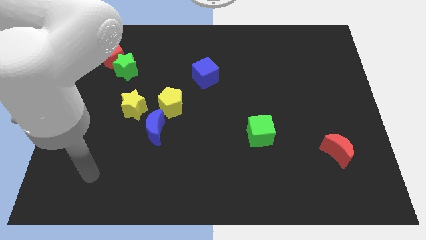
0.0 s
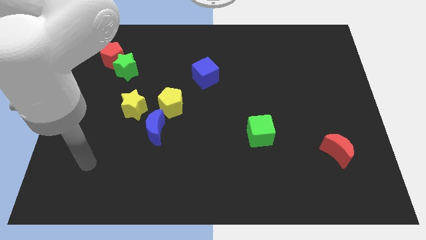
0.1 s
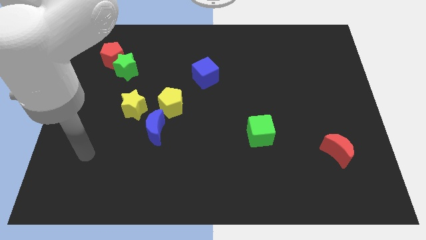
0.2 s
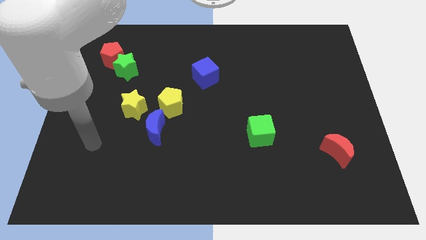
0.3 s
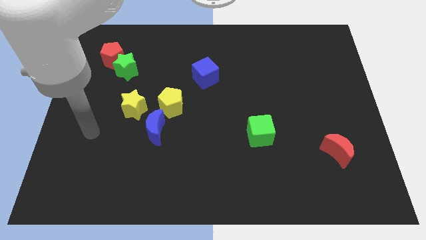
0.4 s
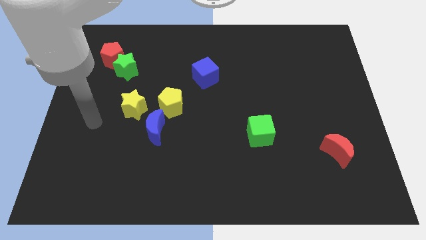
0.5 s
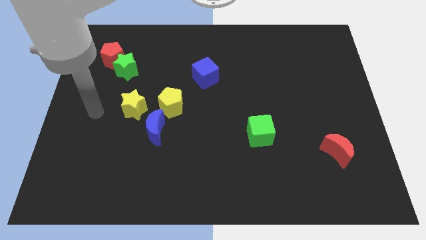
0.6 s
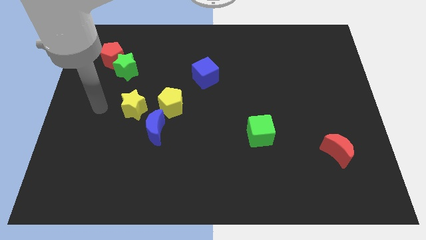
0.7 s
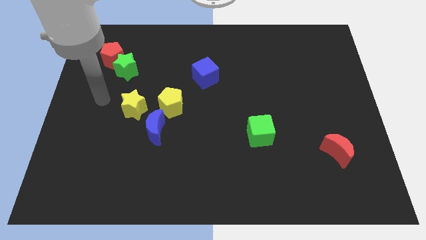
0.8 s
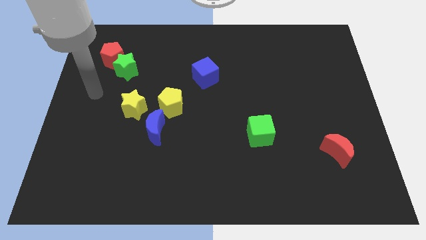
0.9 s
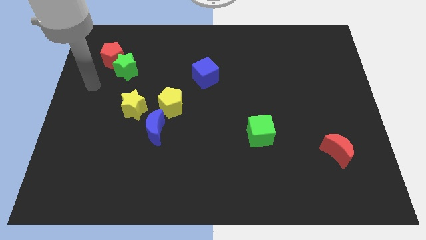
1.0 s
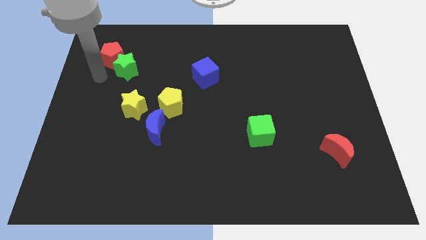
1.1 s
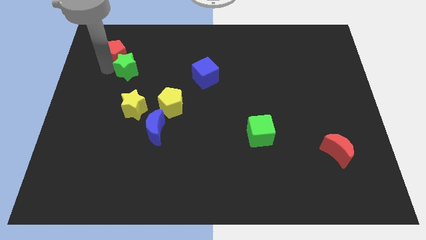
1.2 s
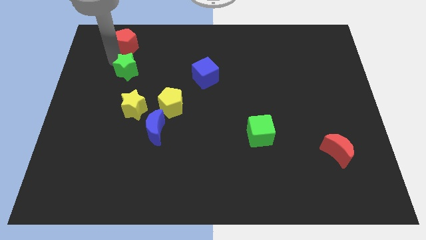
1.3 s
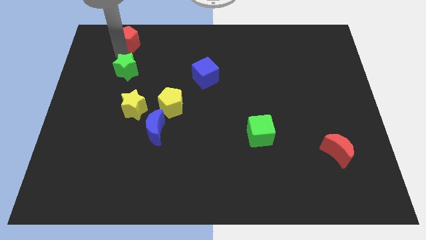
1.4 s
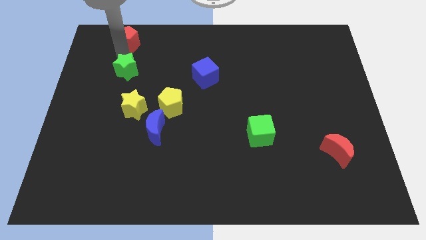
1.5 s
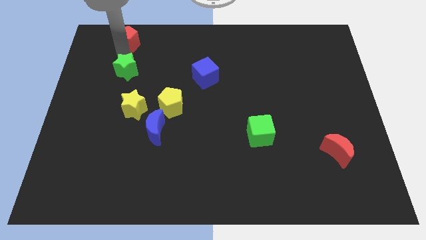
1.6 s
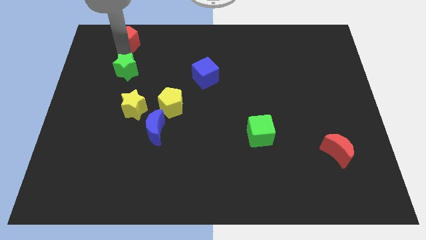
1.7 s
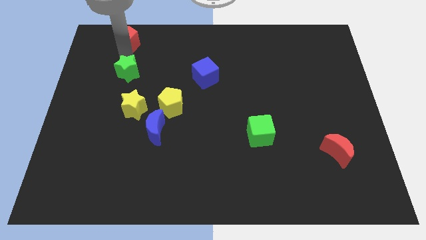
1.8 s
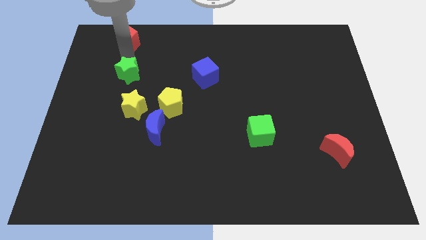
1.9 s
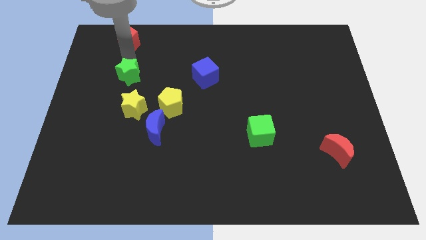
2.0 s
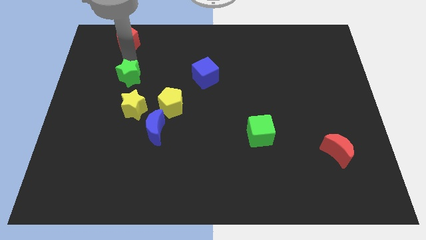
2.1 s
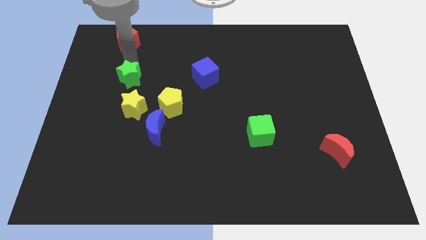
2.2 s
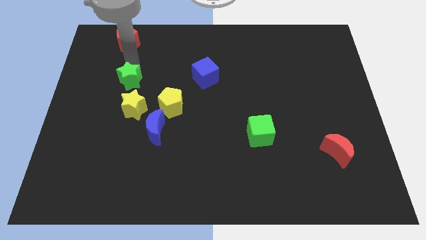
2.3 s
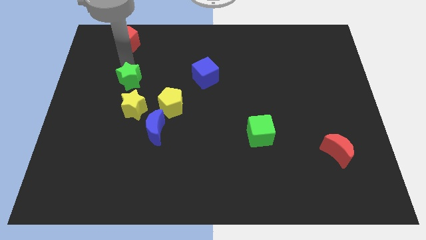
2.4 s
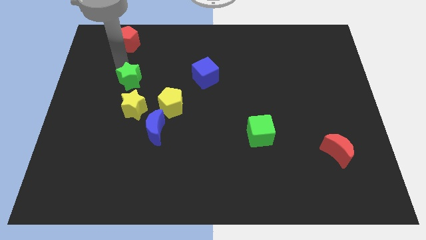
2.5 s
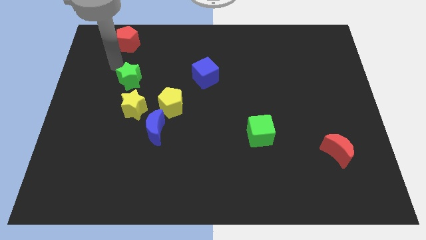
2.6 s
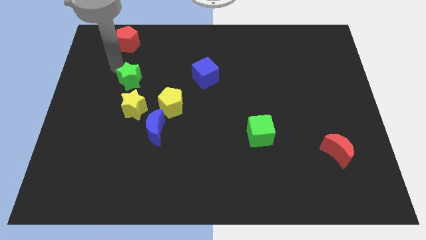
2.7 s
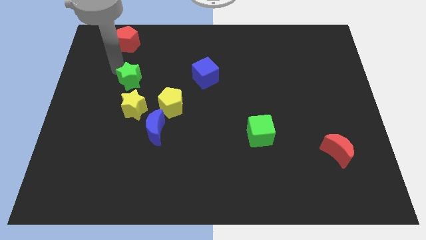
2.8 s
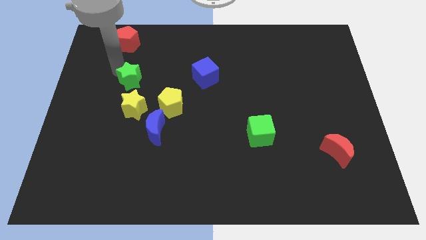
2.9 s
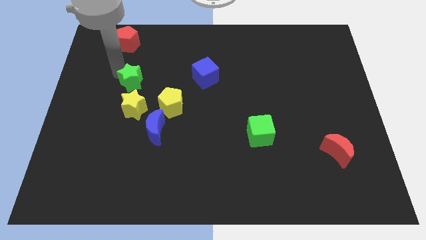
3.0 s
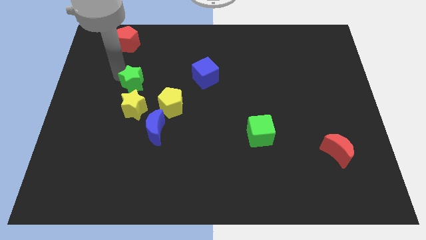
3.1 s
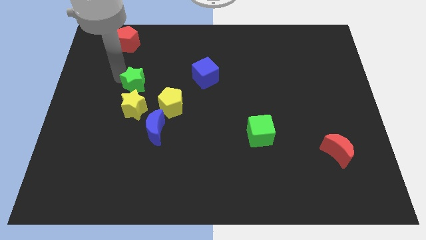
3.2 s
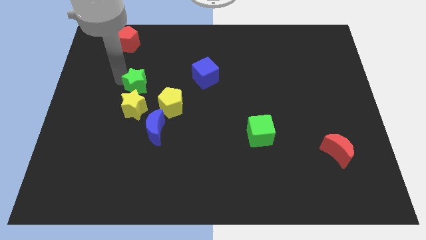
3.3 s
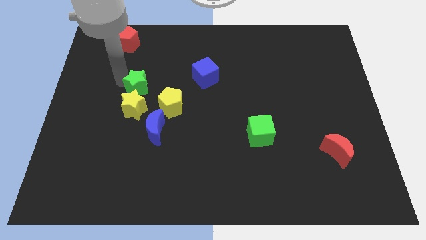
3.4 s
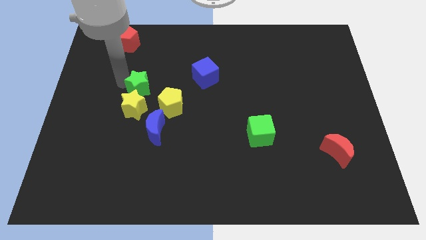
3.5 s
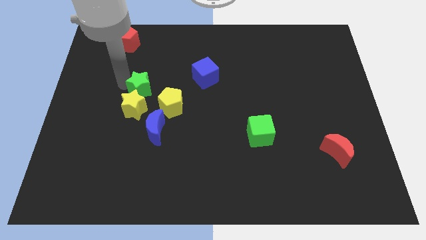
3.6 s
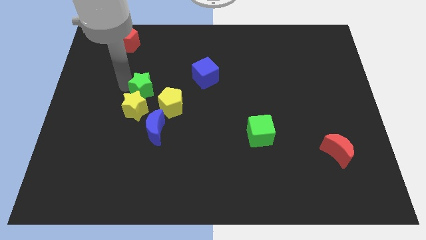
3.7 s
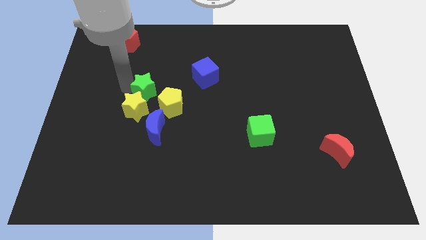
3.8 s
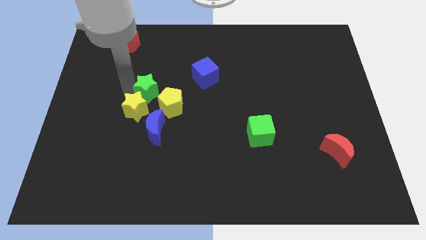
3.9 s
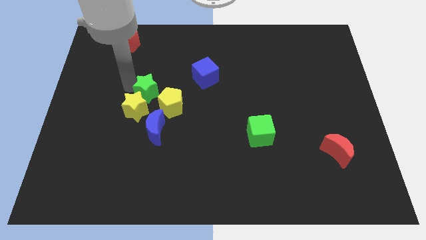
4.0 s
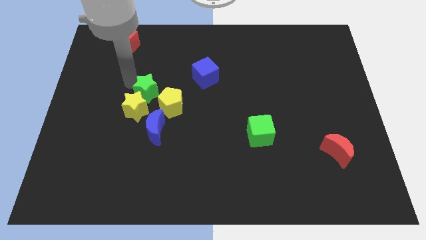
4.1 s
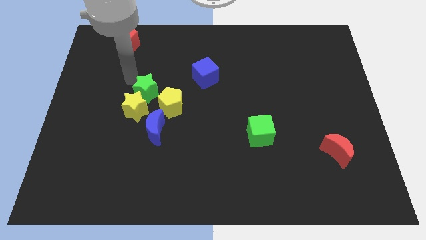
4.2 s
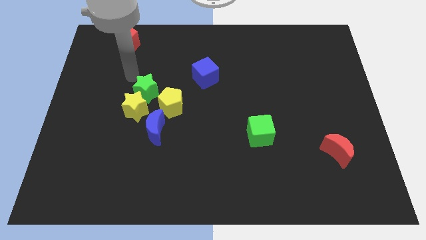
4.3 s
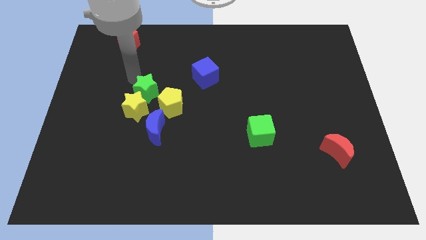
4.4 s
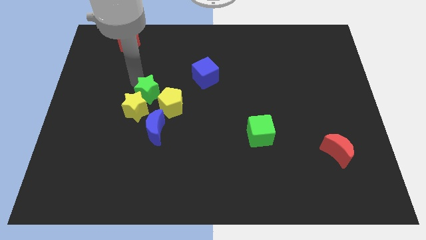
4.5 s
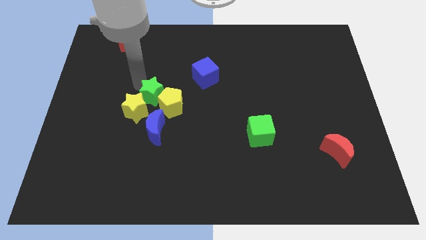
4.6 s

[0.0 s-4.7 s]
slide the green star next to the yellow pentagon

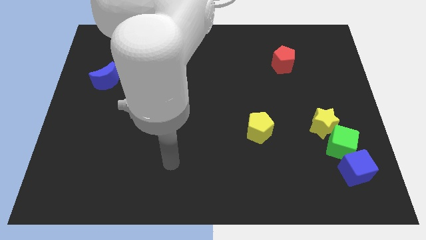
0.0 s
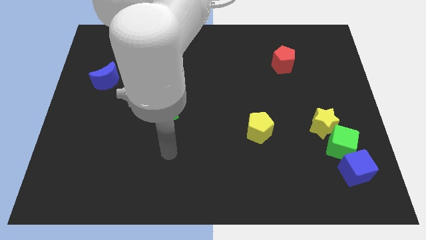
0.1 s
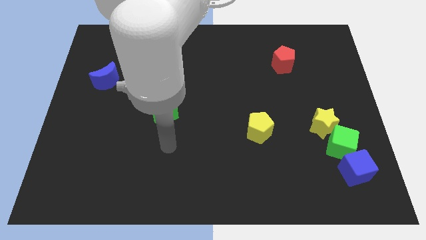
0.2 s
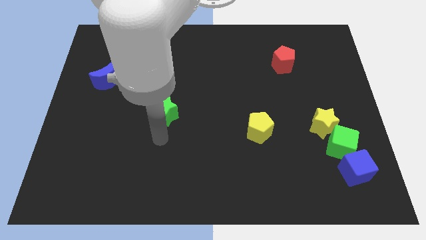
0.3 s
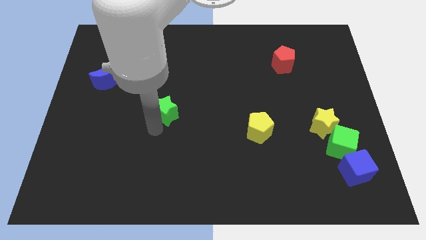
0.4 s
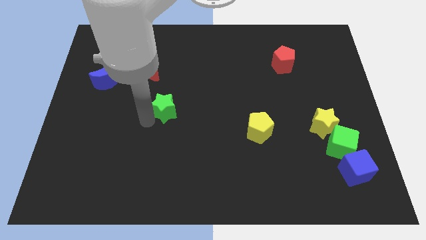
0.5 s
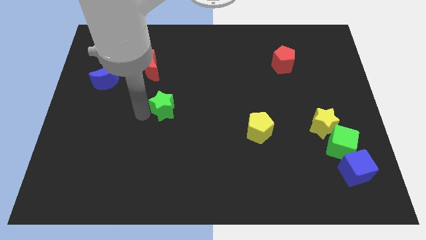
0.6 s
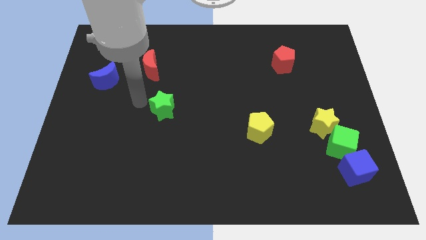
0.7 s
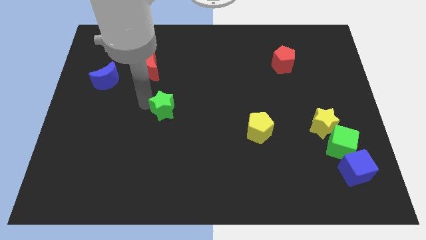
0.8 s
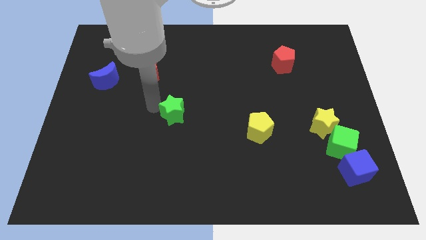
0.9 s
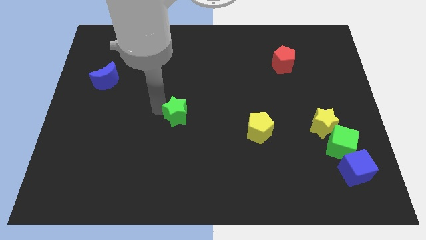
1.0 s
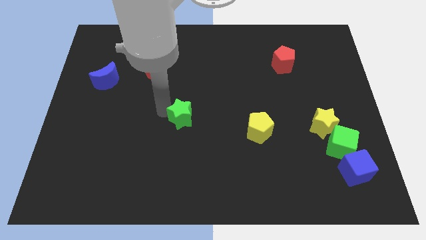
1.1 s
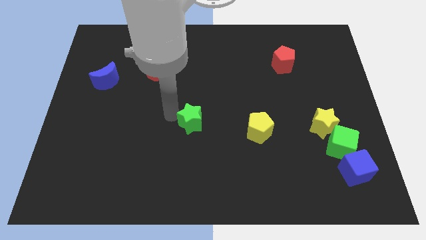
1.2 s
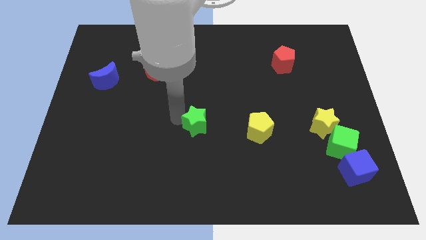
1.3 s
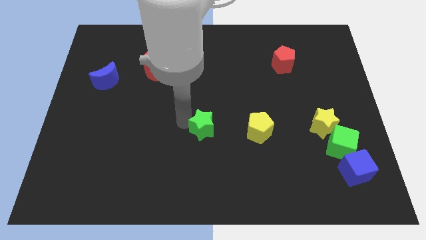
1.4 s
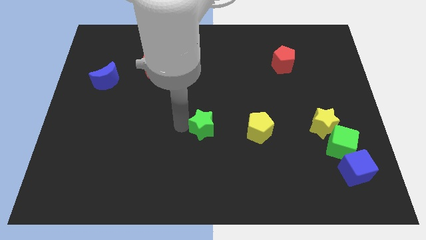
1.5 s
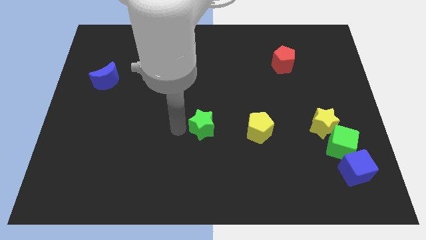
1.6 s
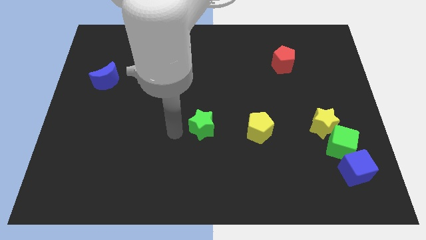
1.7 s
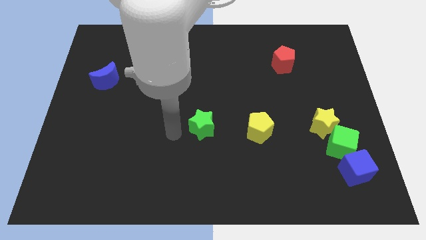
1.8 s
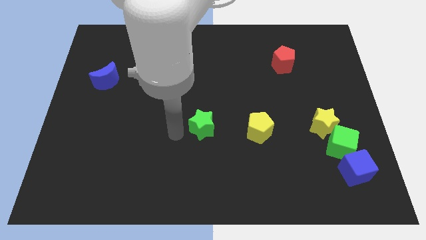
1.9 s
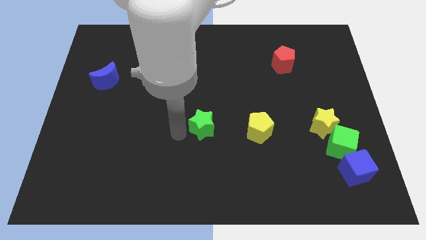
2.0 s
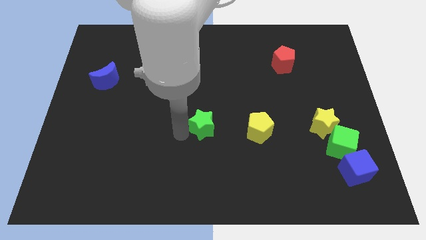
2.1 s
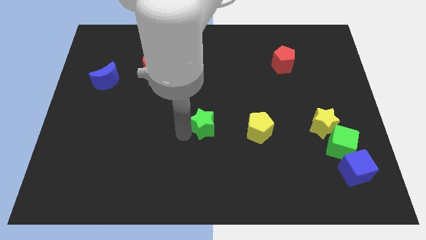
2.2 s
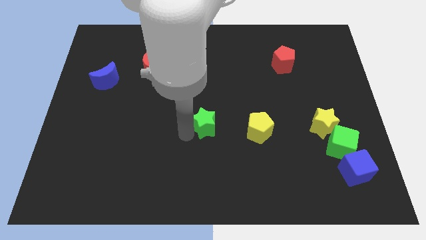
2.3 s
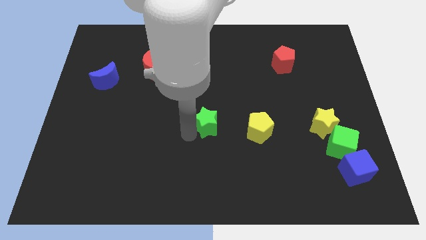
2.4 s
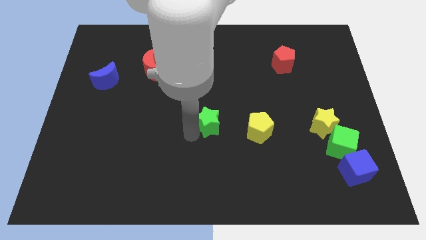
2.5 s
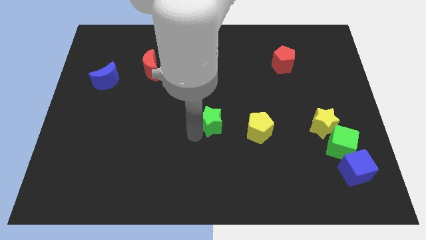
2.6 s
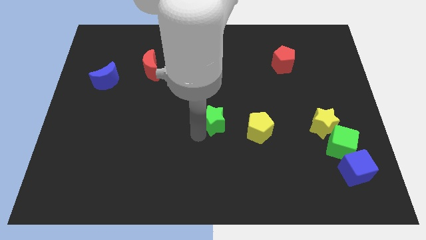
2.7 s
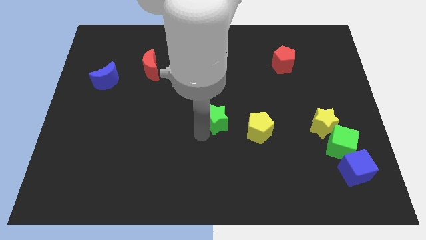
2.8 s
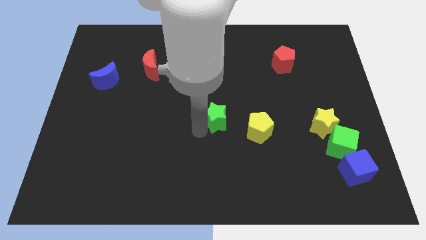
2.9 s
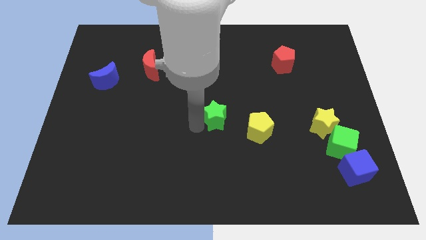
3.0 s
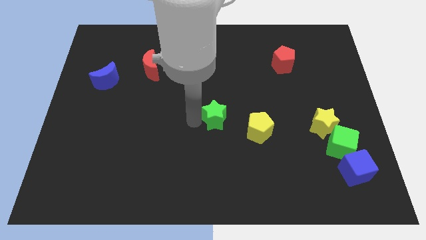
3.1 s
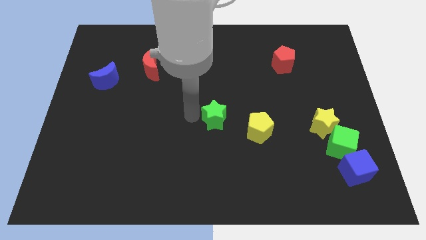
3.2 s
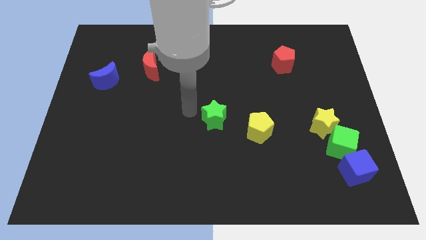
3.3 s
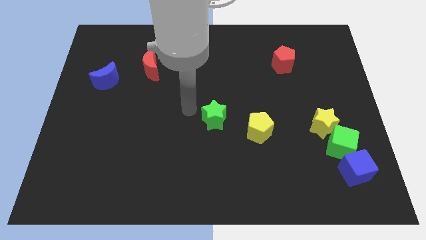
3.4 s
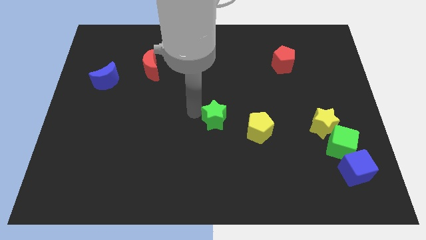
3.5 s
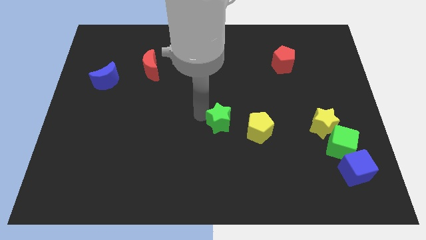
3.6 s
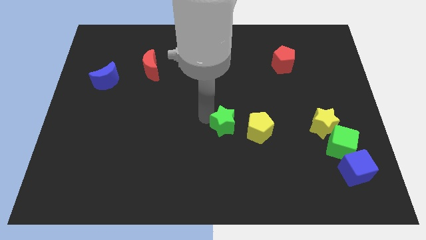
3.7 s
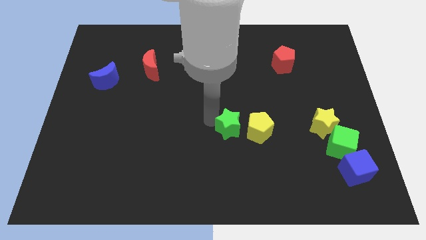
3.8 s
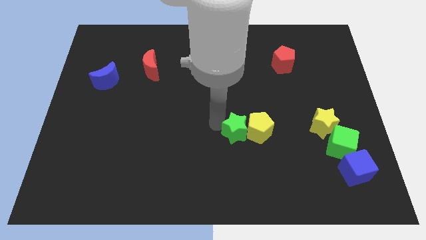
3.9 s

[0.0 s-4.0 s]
slide the green star to the yellow pentagon
